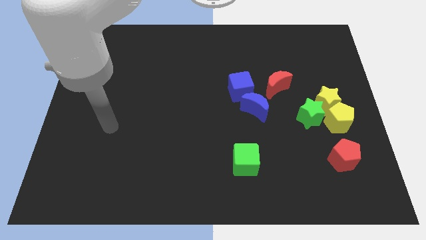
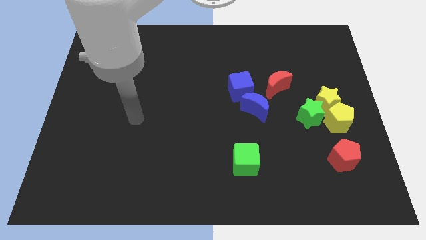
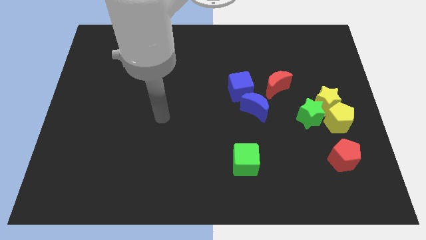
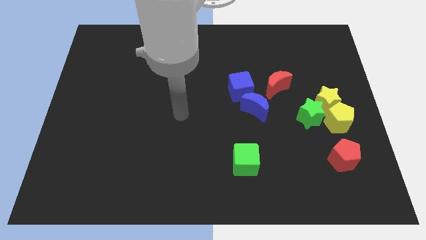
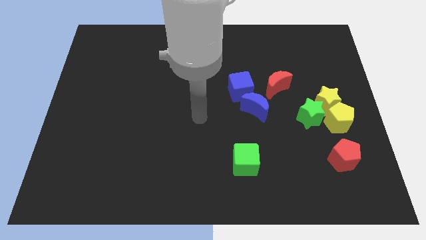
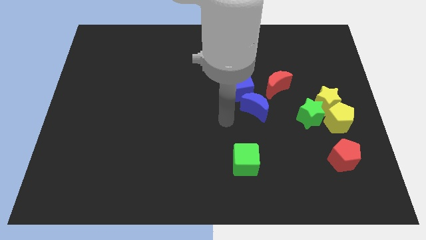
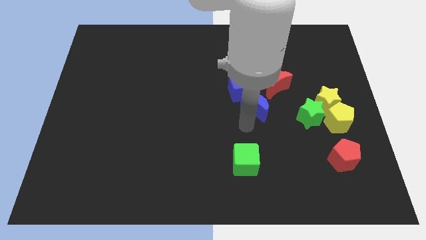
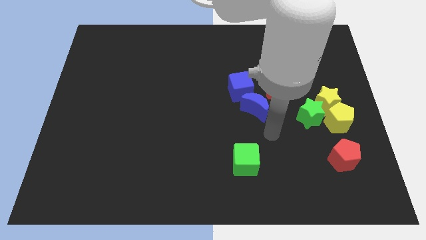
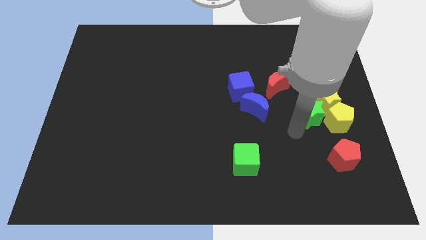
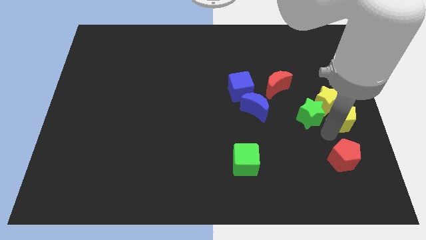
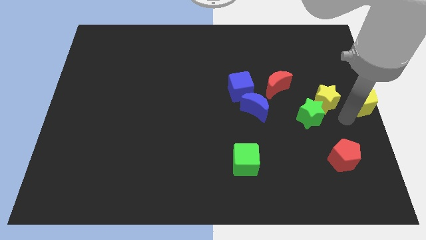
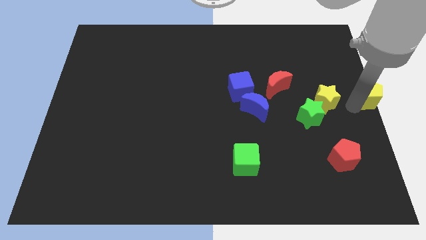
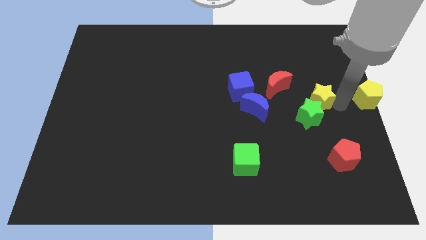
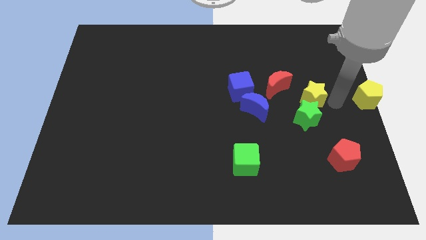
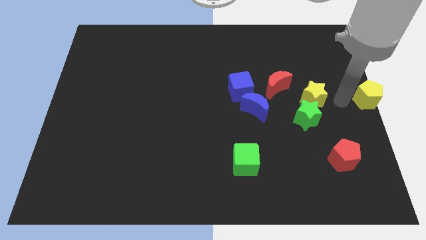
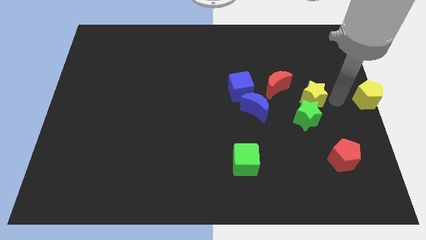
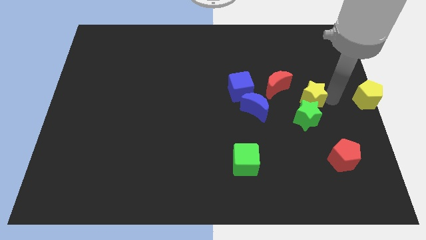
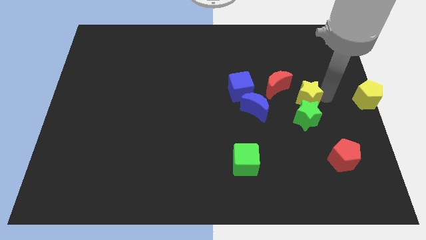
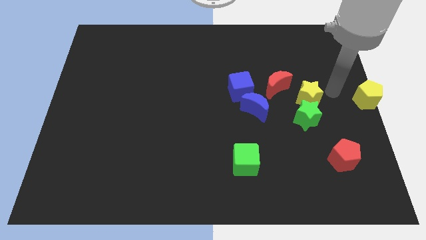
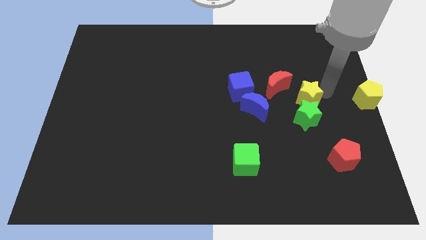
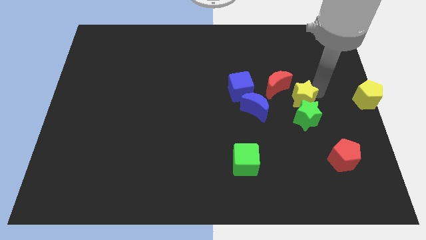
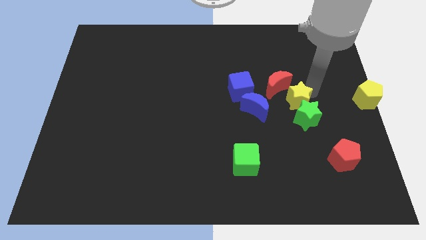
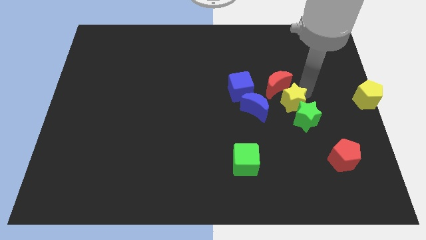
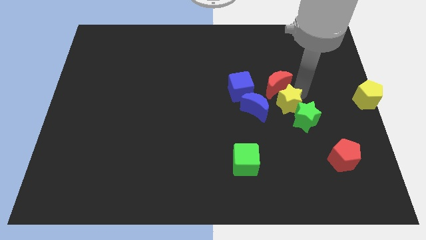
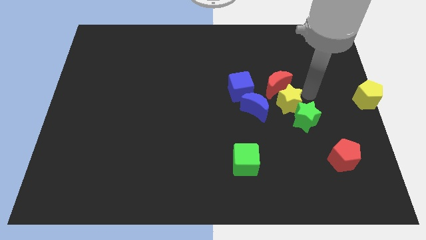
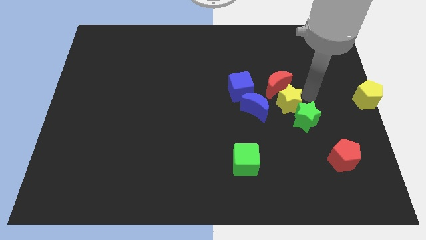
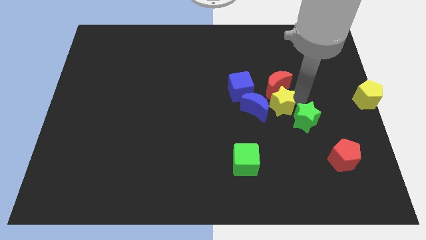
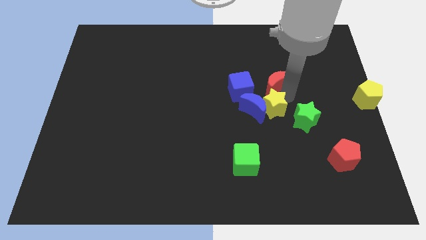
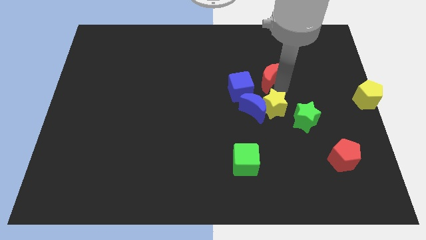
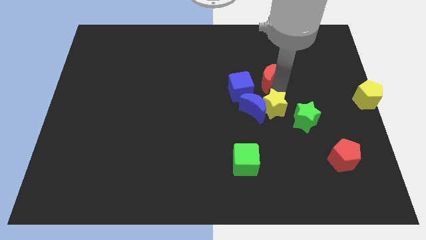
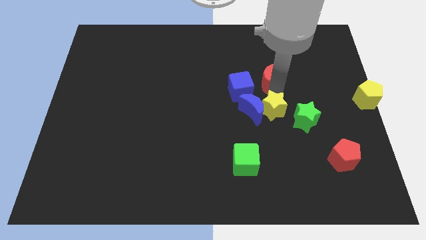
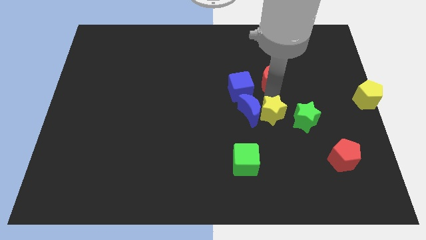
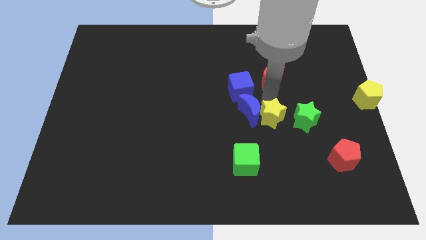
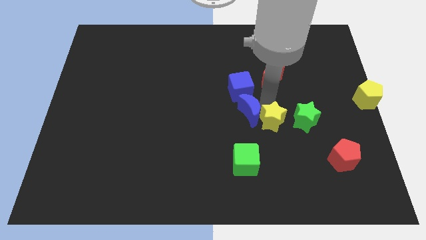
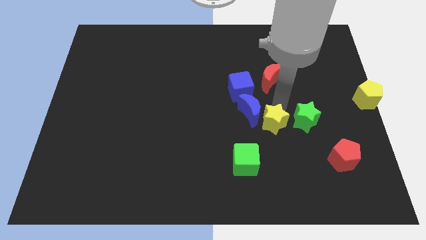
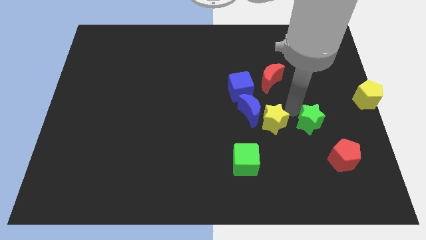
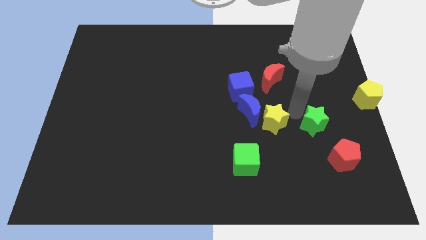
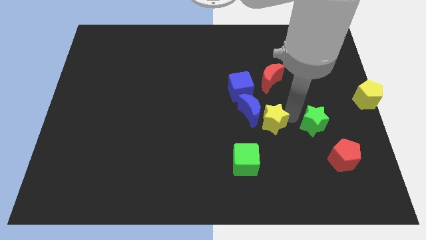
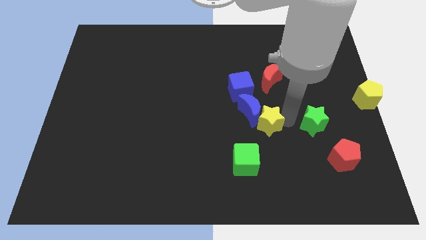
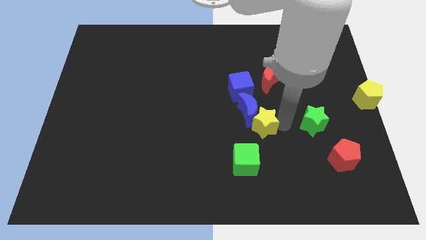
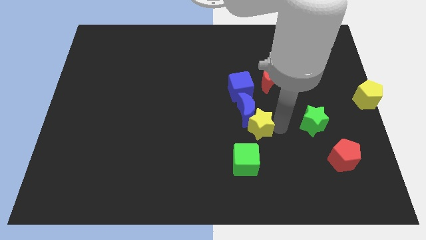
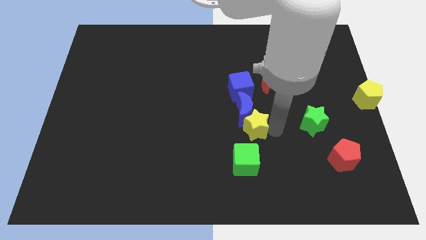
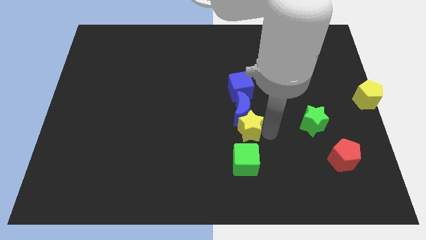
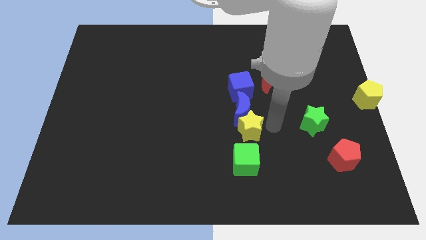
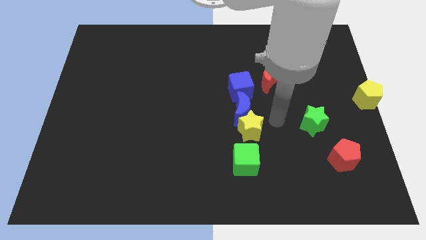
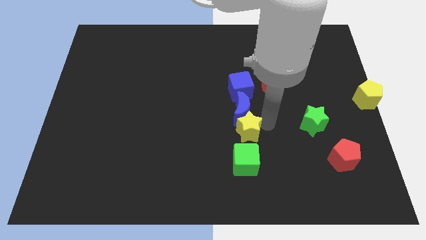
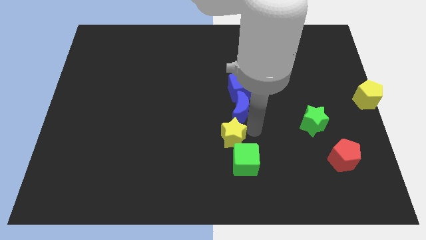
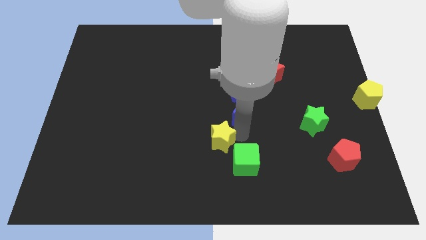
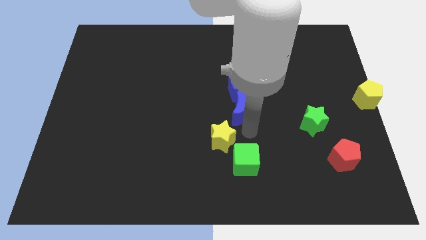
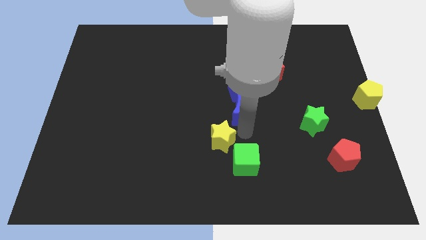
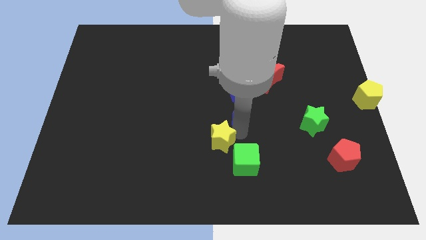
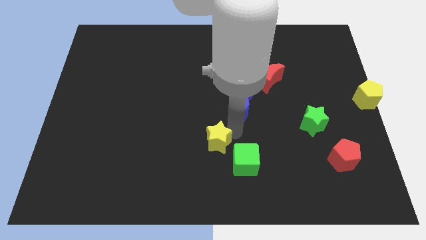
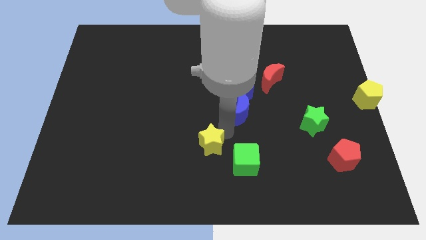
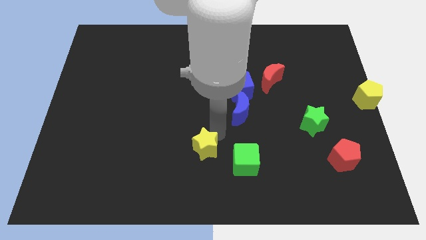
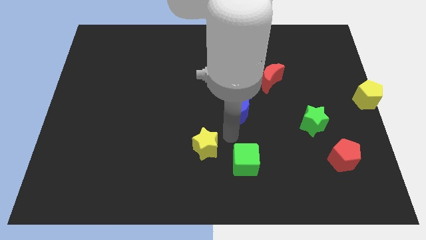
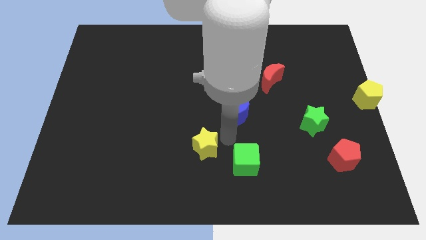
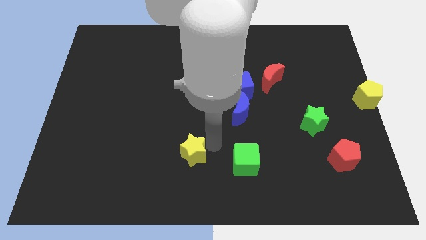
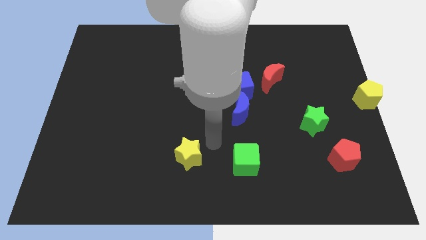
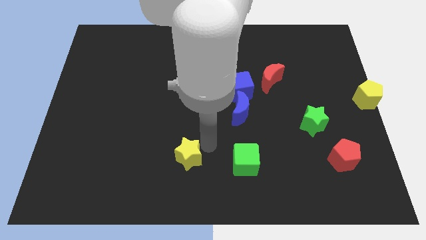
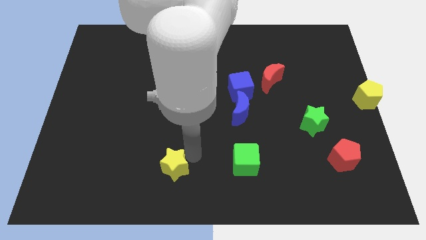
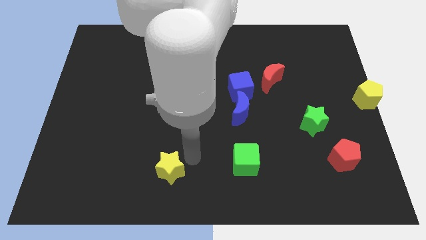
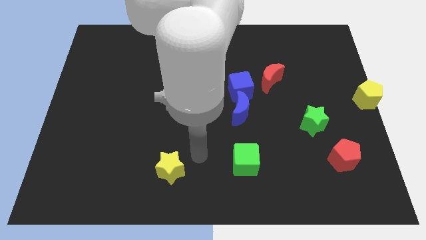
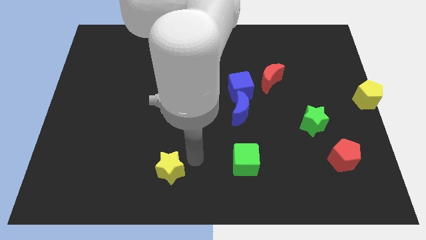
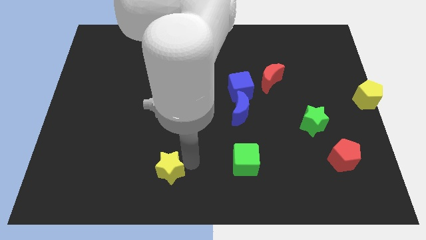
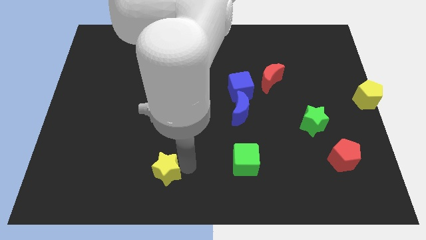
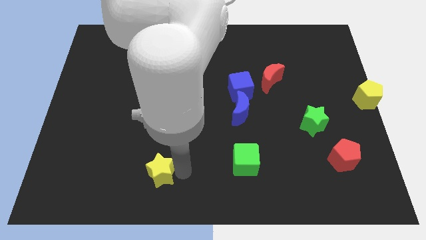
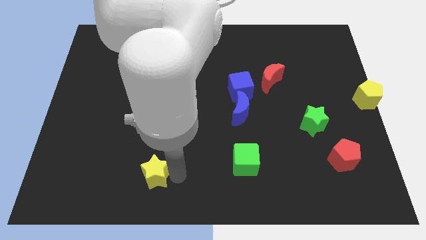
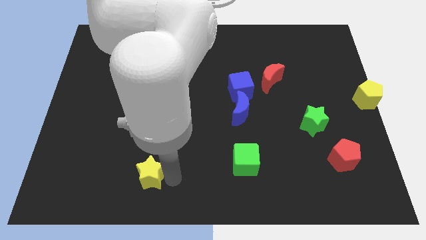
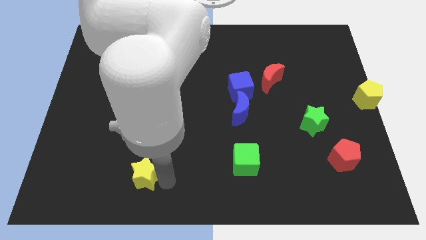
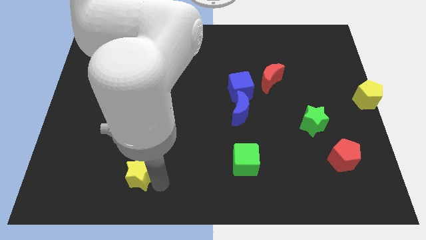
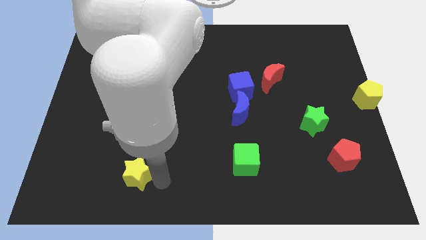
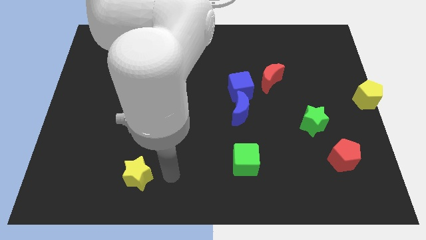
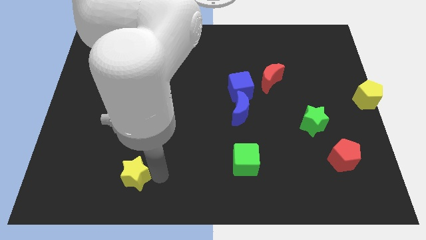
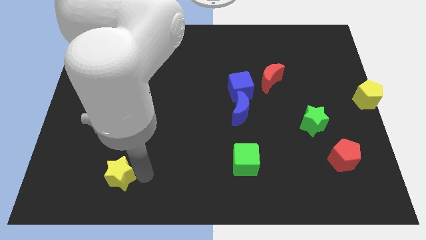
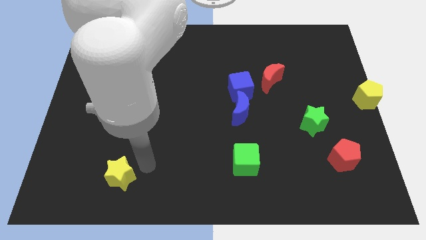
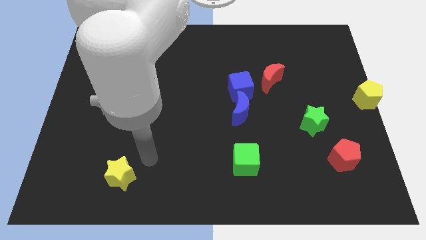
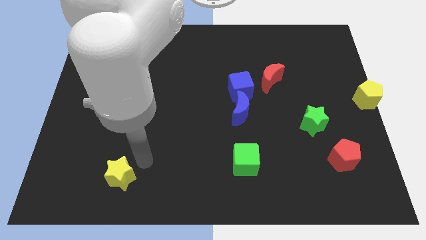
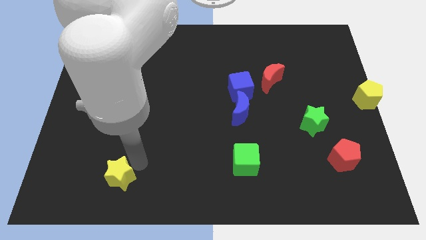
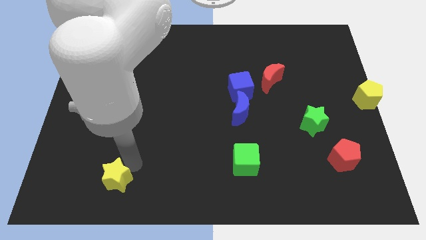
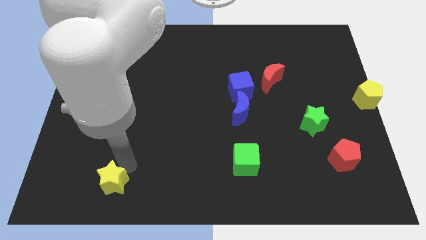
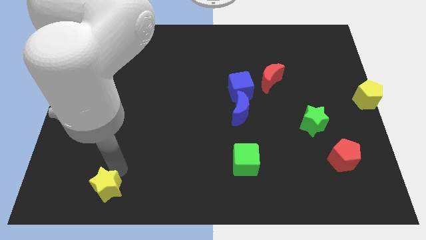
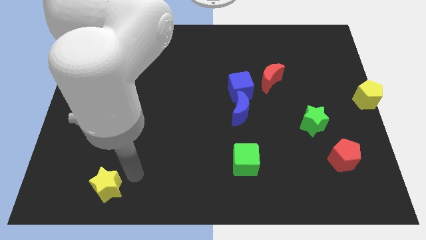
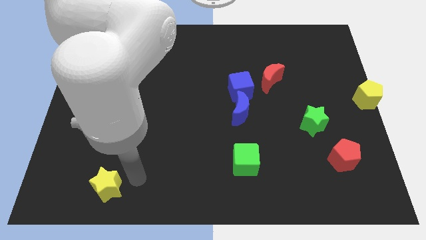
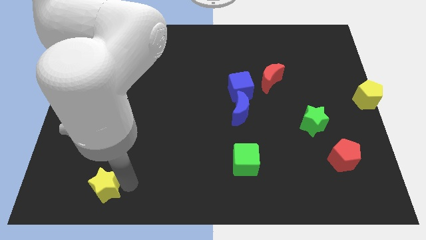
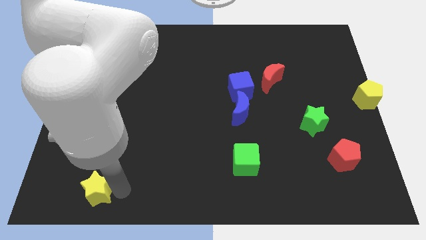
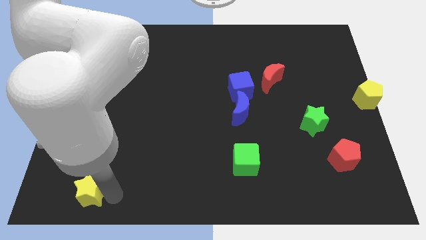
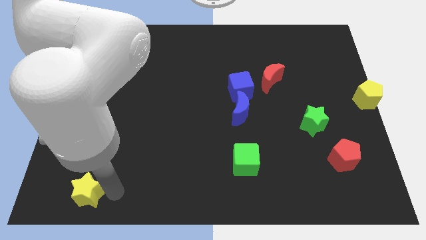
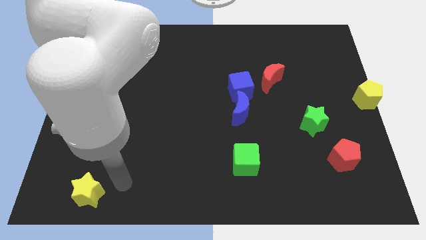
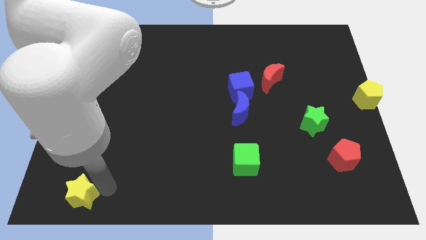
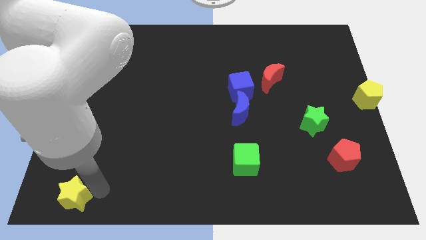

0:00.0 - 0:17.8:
slide the yellow star to the lower left corner
